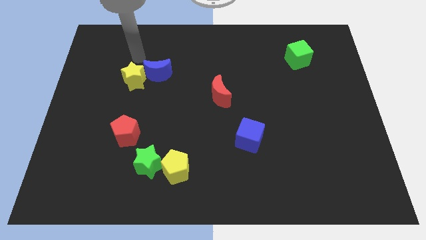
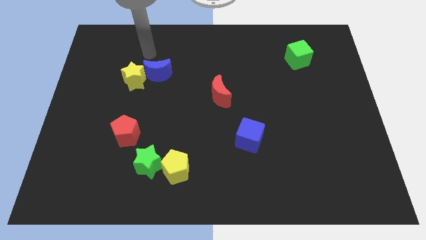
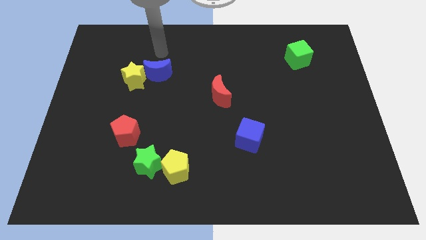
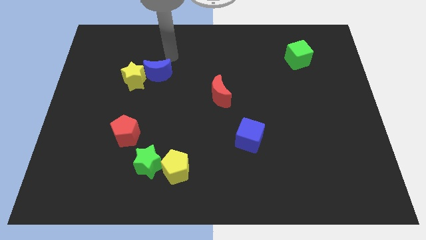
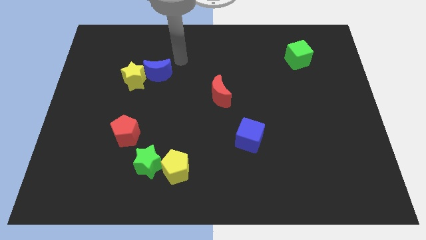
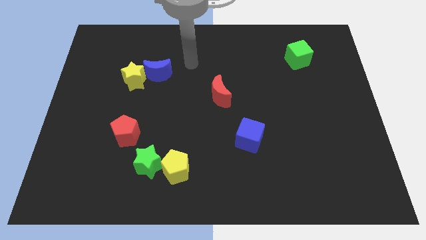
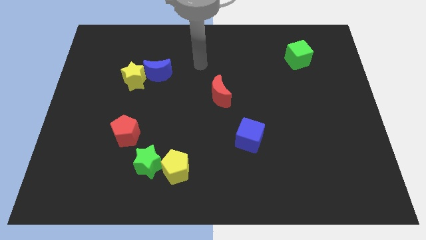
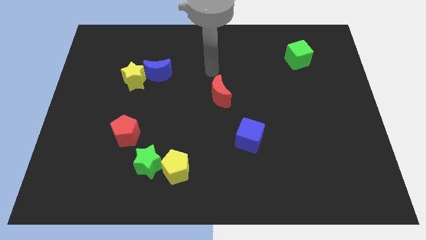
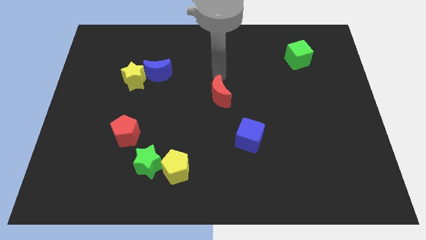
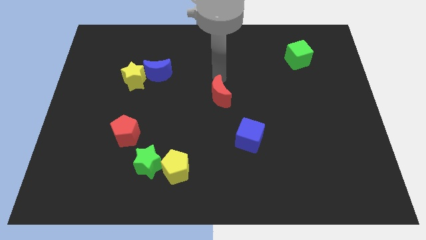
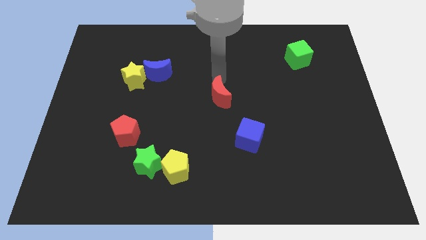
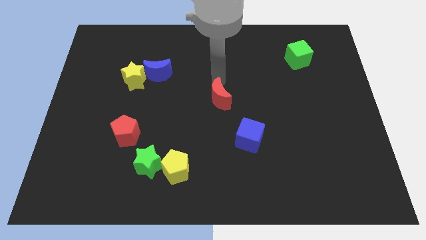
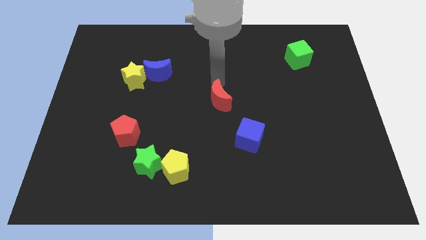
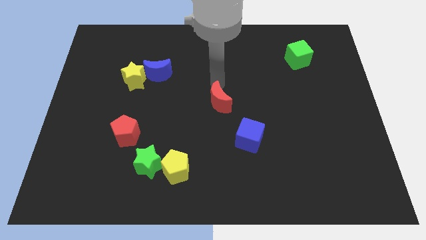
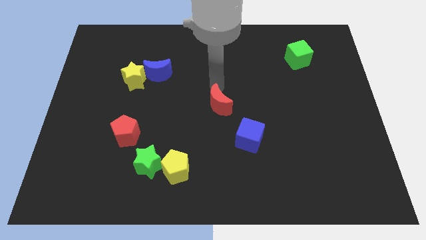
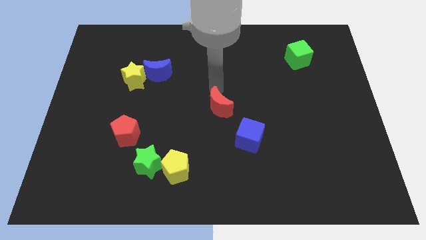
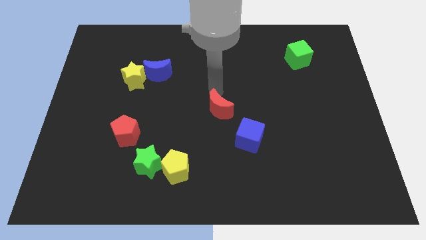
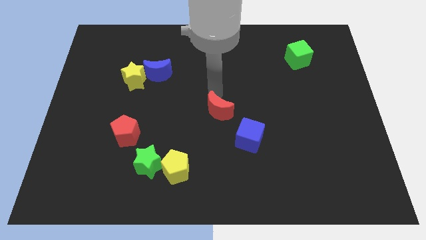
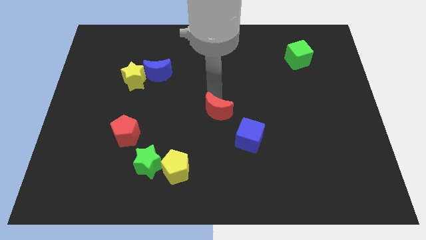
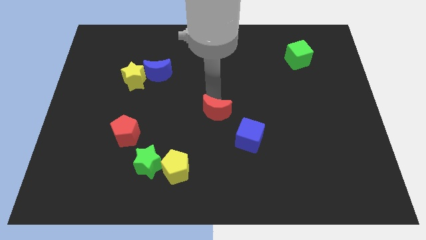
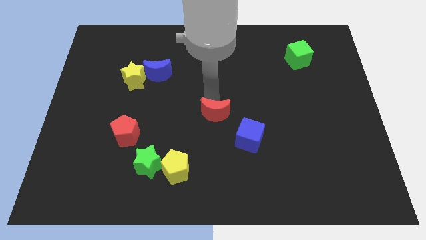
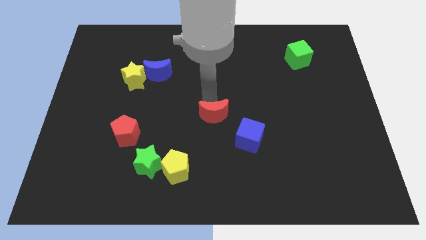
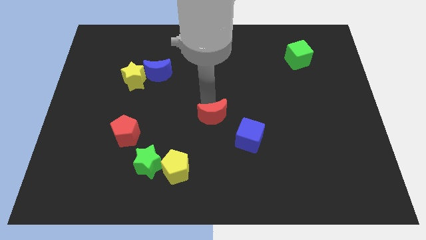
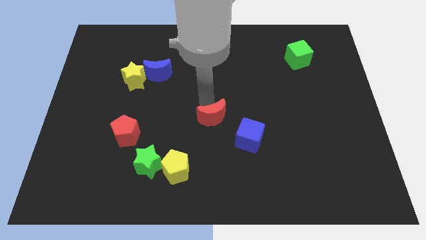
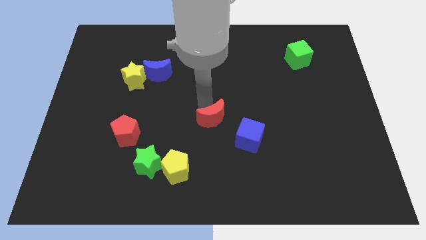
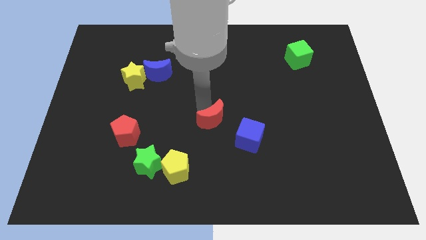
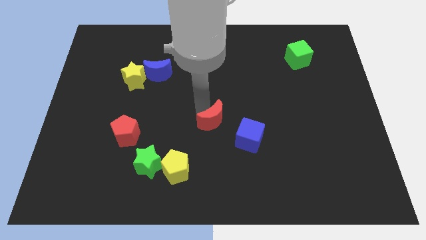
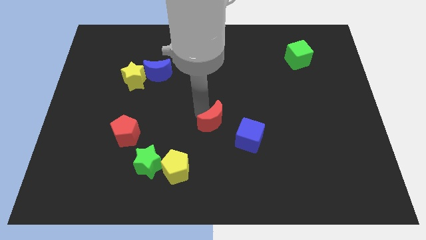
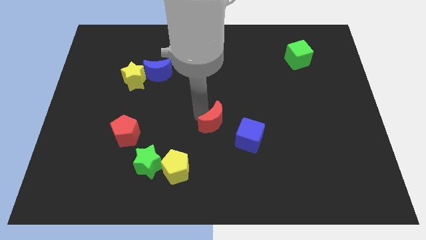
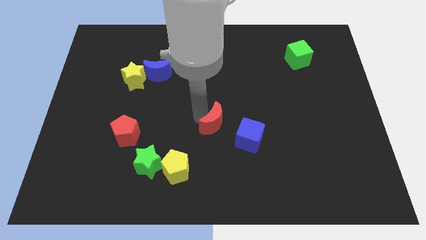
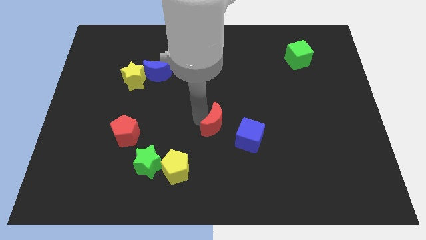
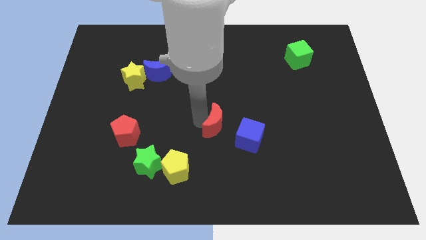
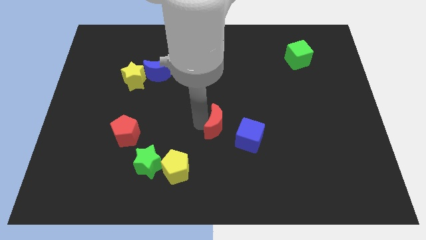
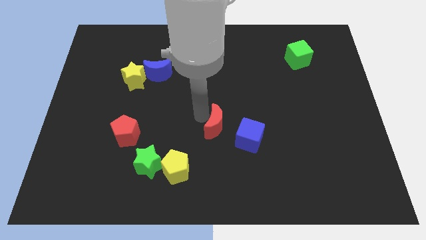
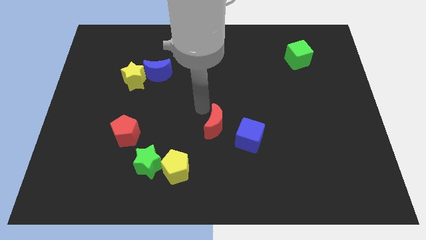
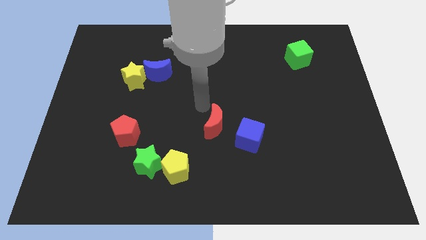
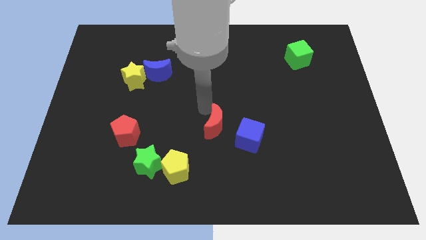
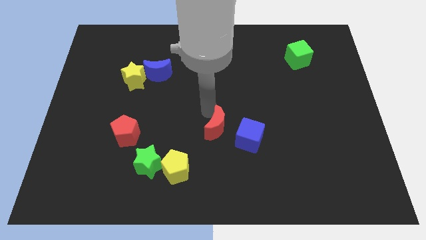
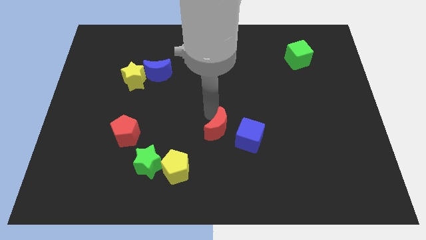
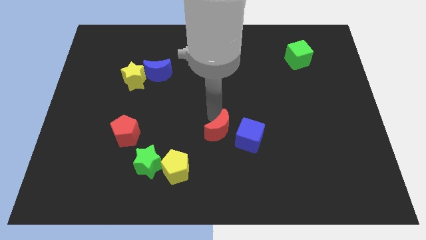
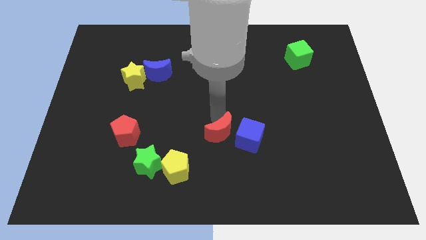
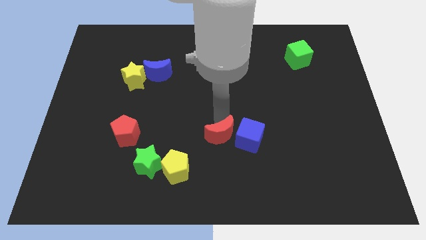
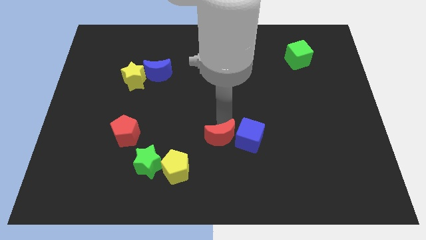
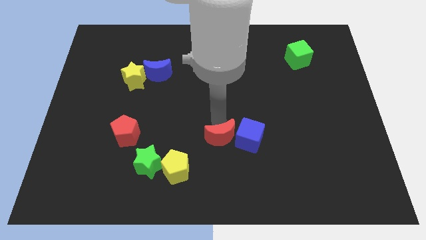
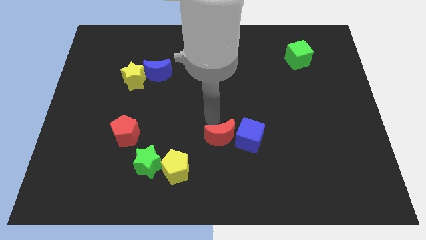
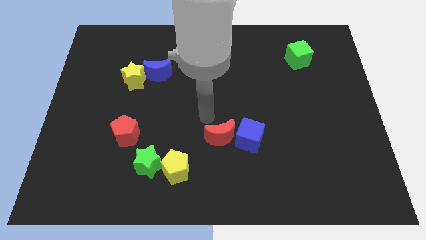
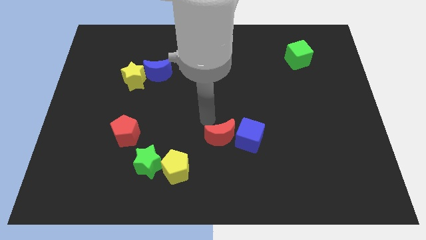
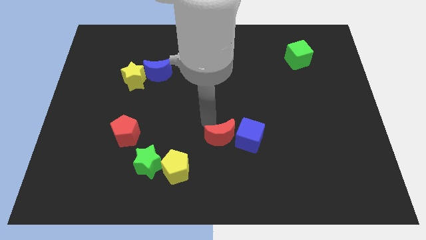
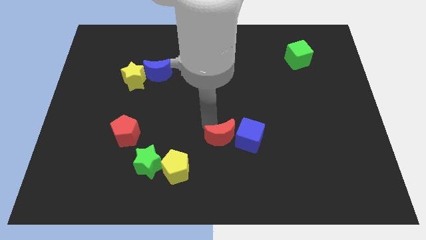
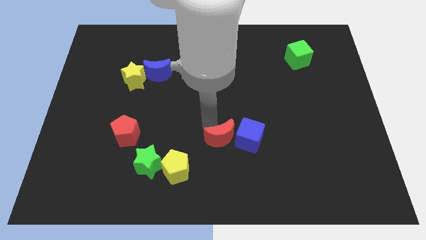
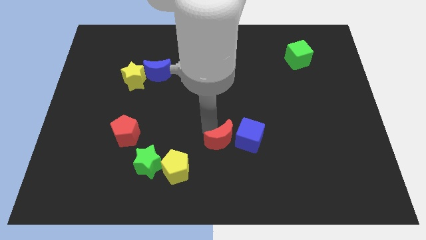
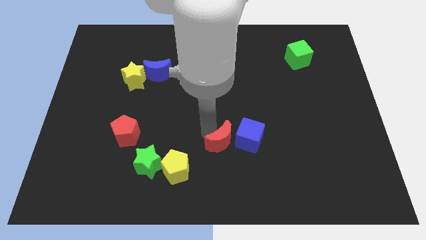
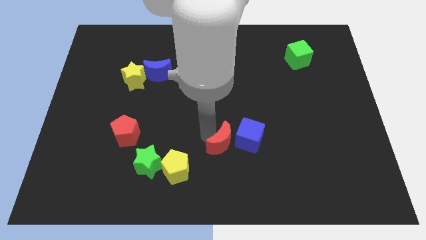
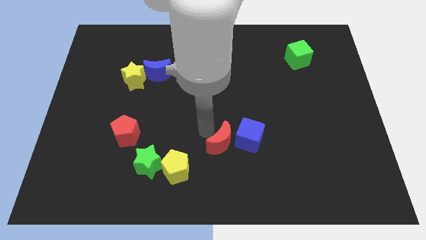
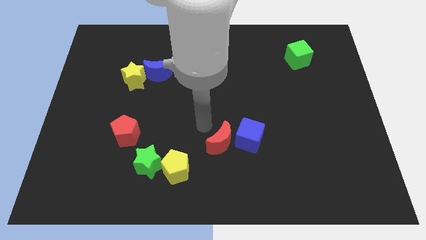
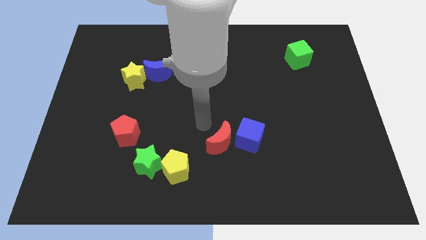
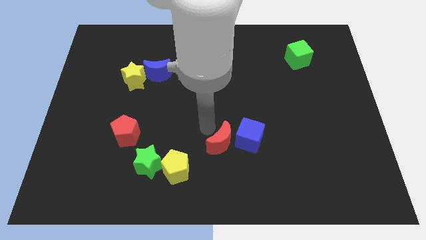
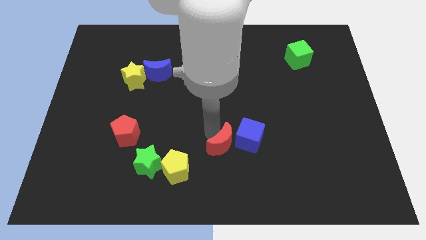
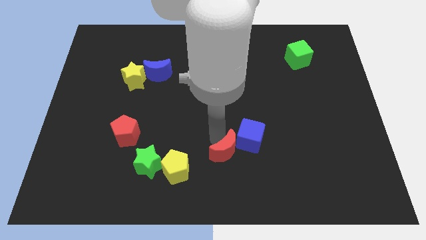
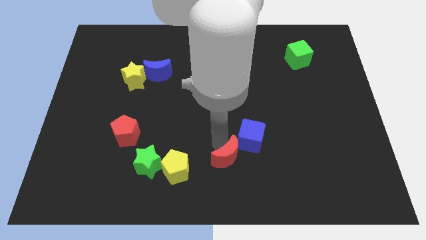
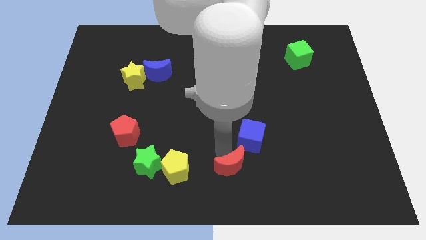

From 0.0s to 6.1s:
move the red moon to the bottom of the blue cube

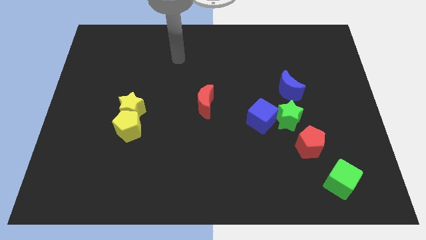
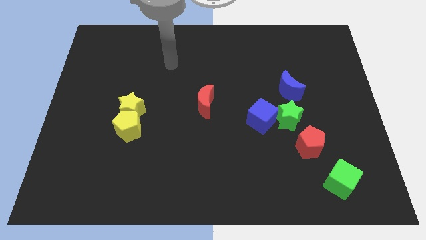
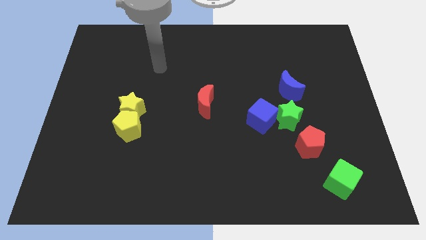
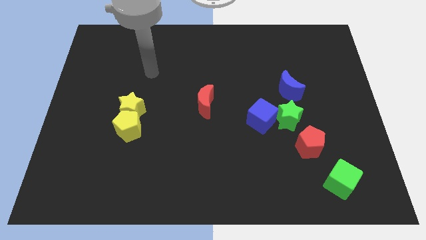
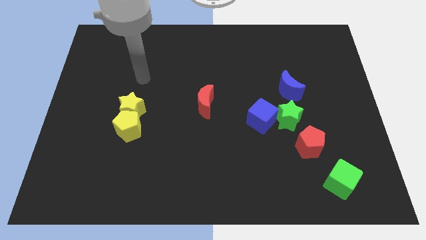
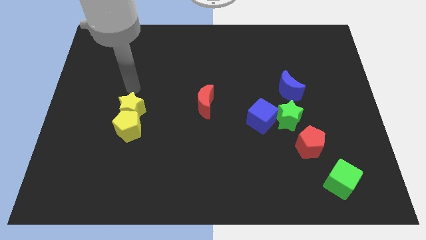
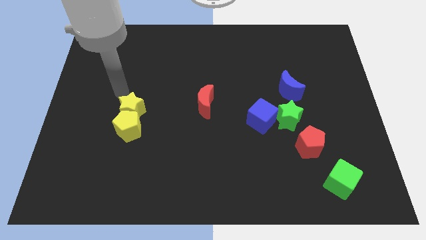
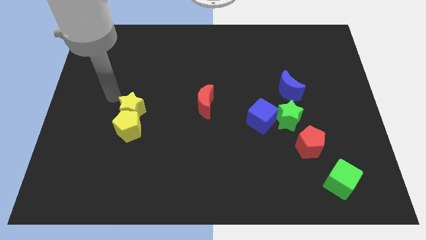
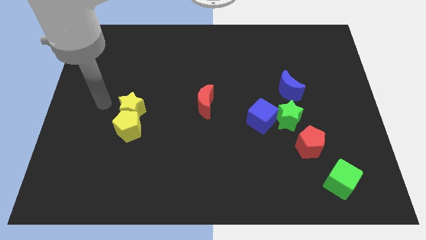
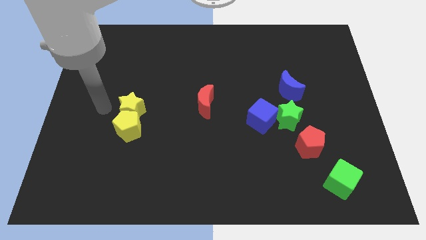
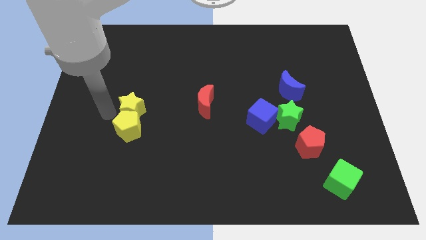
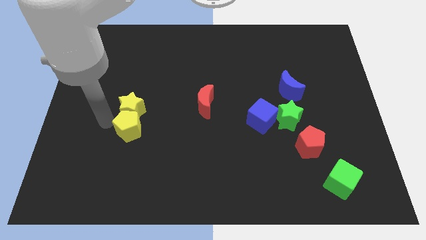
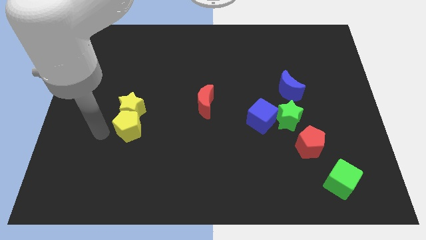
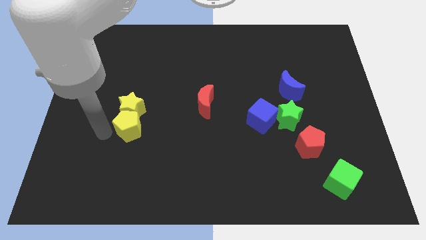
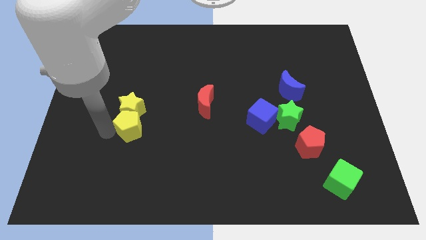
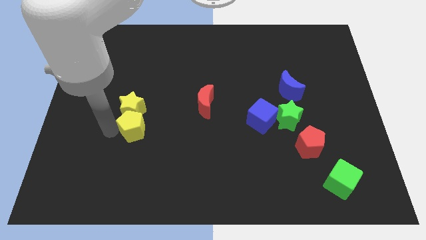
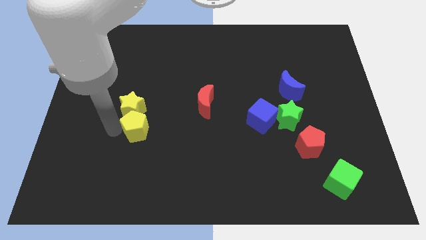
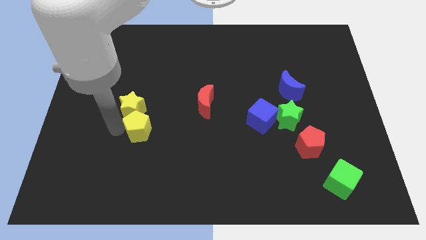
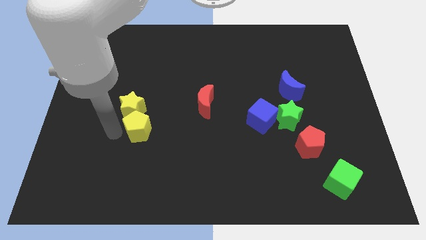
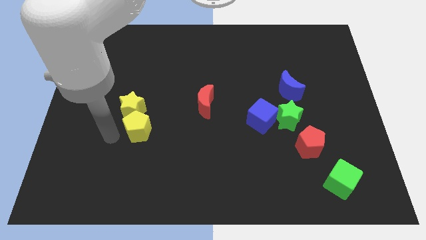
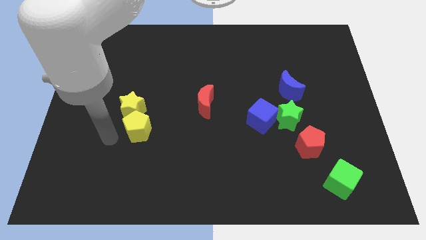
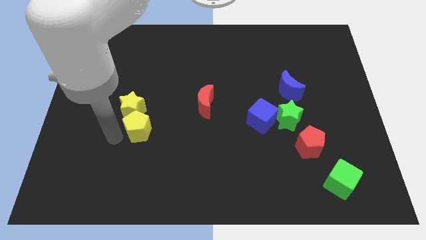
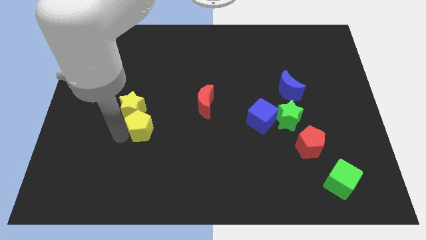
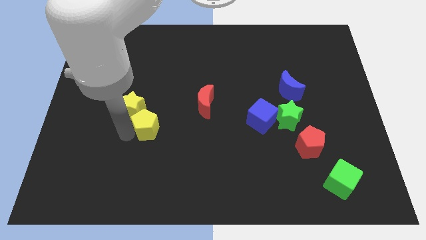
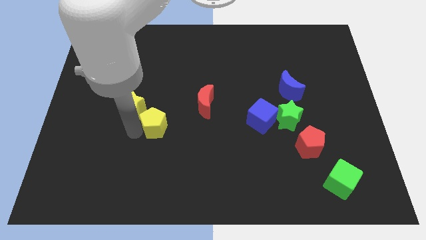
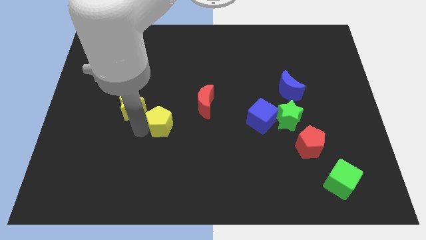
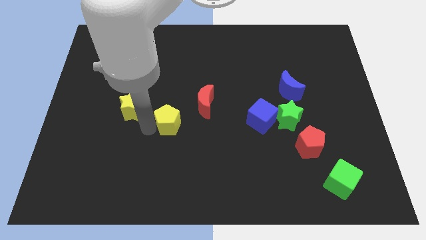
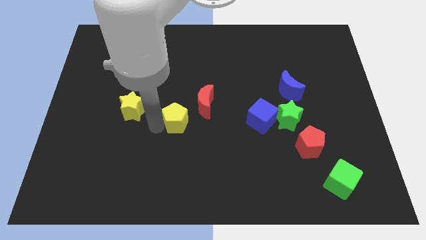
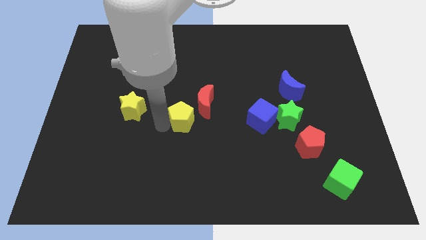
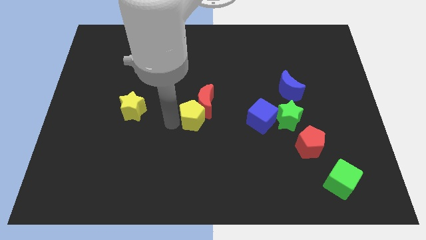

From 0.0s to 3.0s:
move the yellow pentagon to the left of the blue cube
